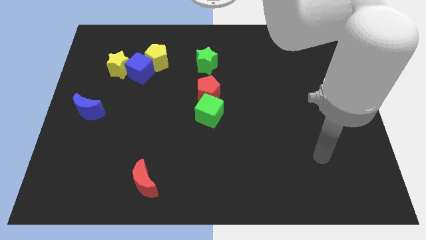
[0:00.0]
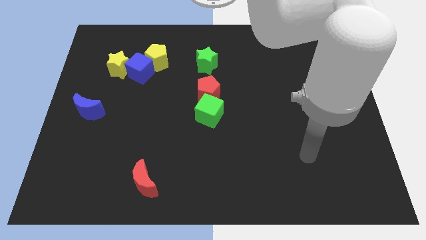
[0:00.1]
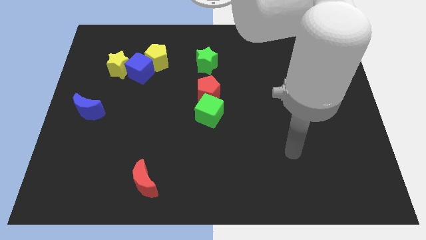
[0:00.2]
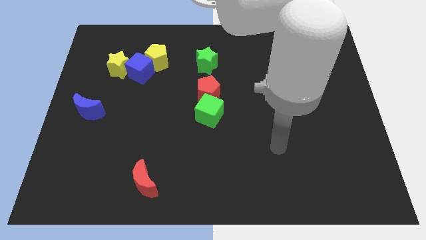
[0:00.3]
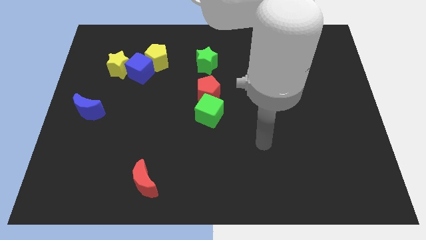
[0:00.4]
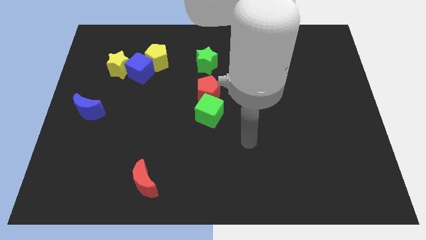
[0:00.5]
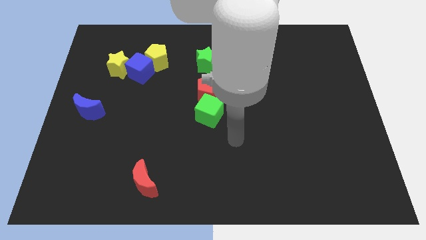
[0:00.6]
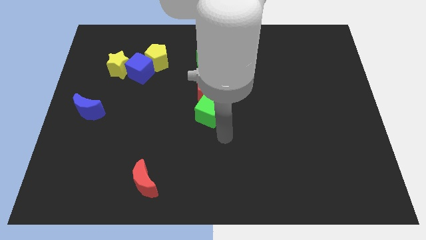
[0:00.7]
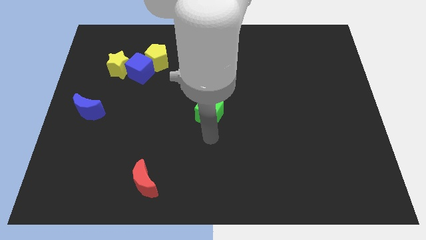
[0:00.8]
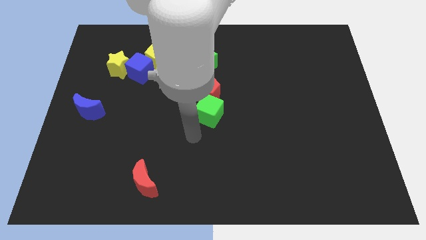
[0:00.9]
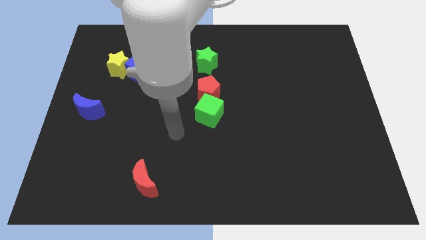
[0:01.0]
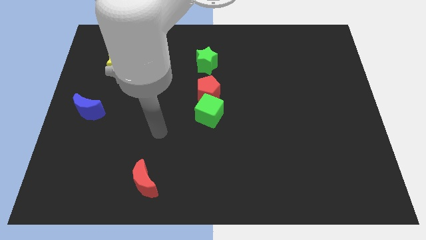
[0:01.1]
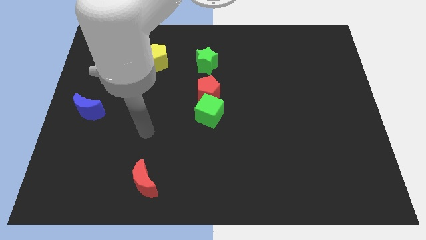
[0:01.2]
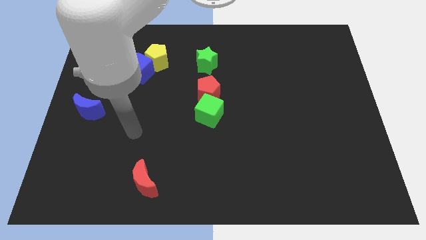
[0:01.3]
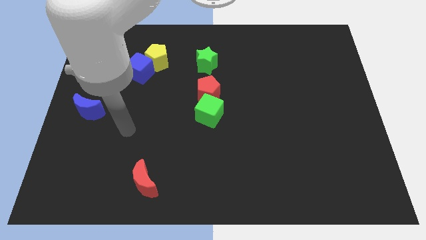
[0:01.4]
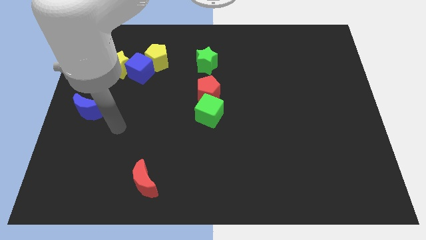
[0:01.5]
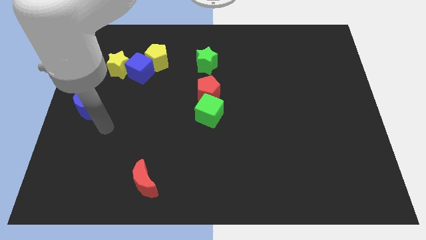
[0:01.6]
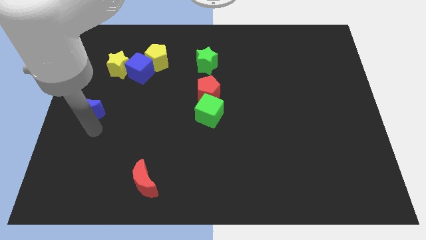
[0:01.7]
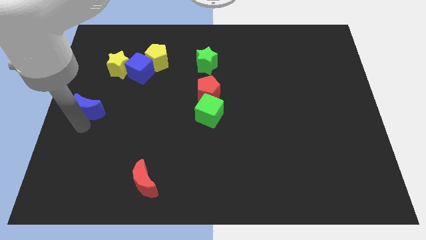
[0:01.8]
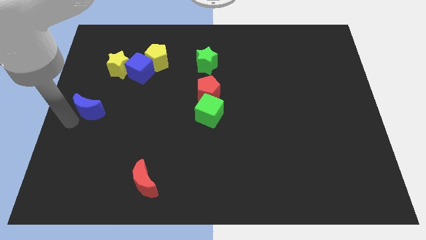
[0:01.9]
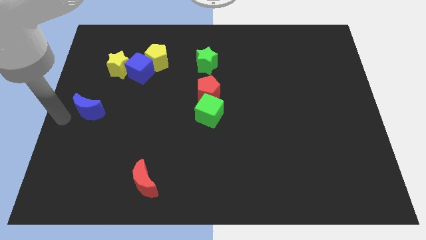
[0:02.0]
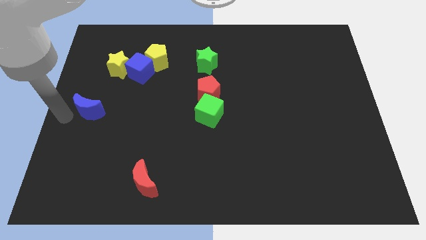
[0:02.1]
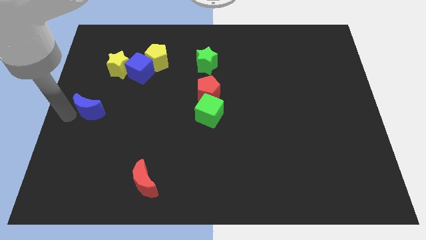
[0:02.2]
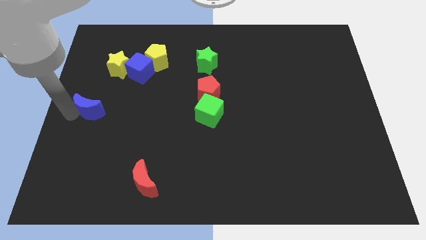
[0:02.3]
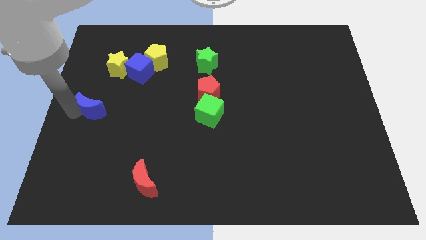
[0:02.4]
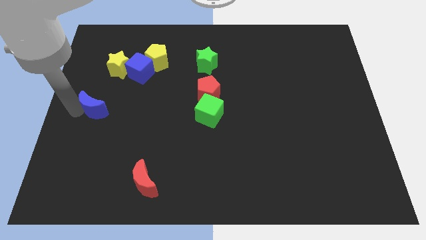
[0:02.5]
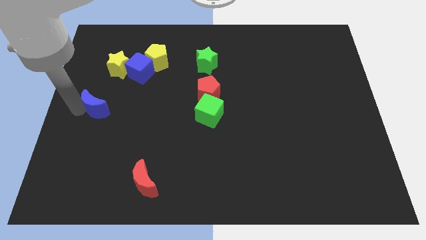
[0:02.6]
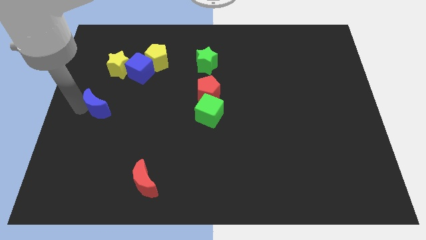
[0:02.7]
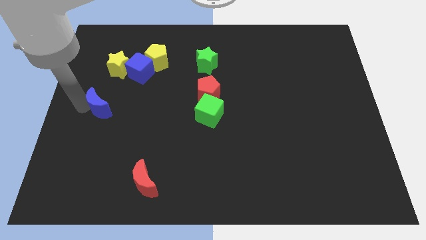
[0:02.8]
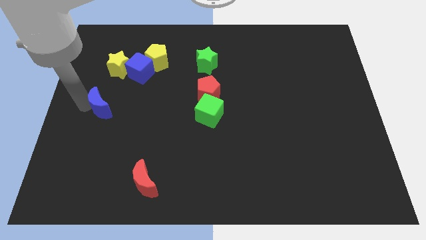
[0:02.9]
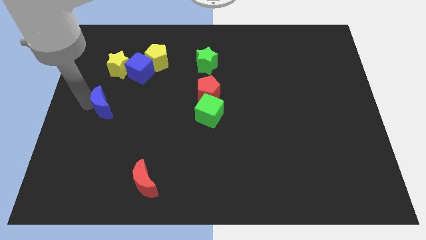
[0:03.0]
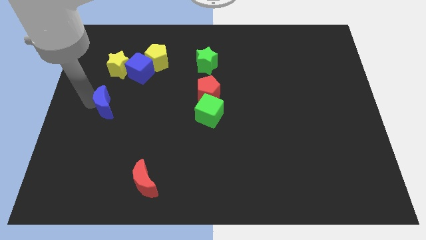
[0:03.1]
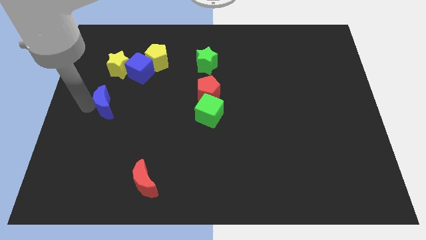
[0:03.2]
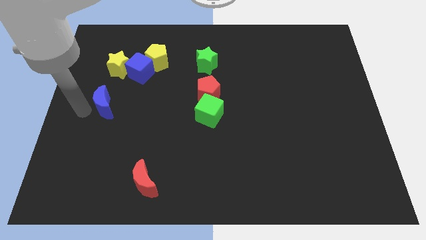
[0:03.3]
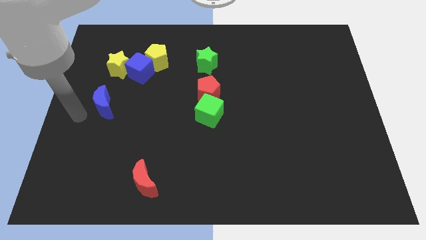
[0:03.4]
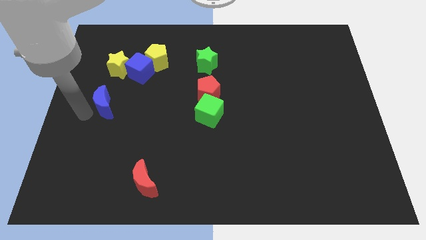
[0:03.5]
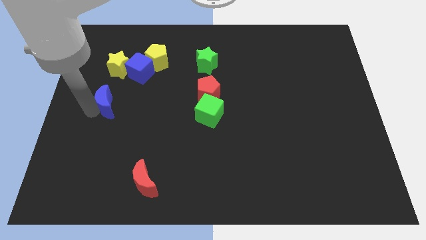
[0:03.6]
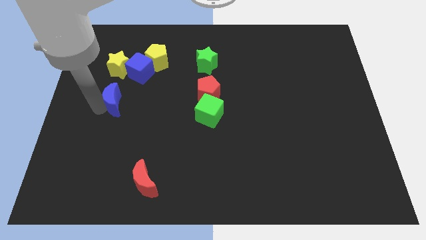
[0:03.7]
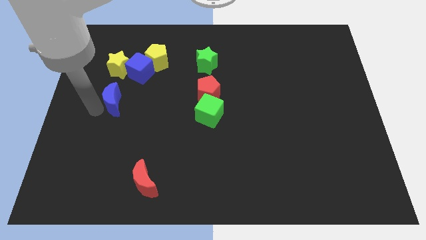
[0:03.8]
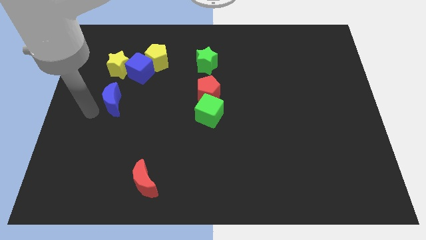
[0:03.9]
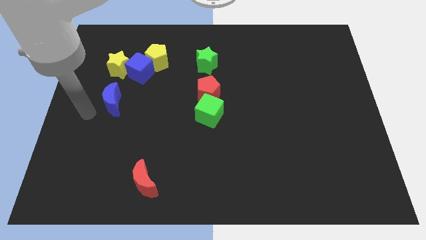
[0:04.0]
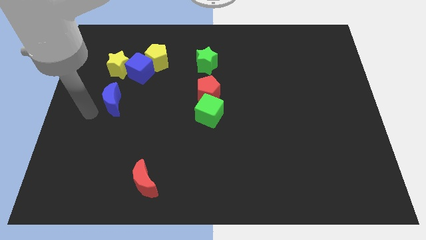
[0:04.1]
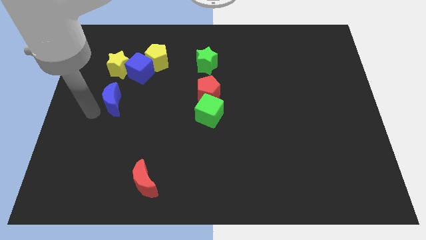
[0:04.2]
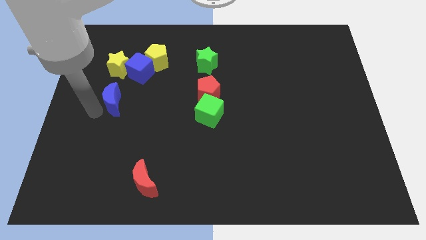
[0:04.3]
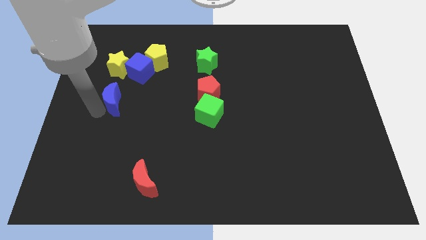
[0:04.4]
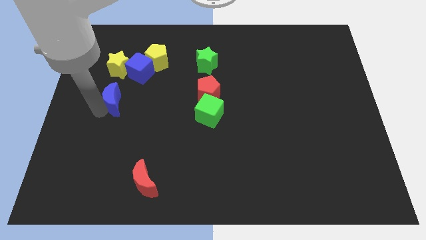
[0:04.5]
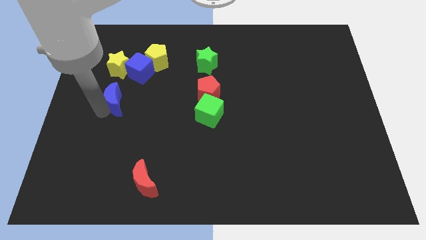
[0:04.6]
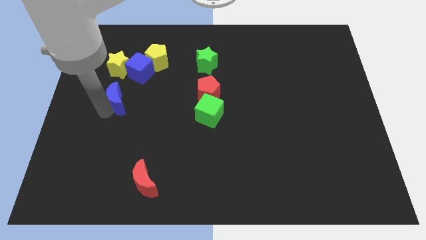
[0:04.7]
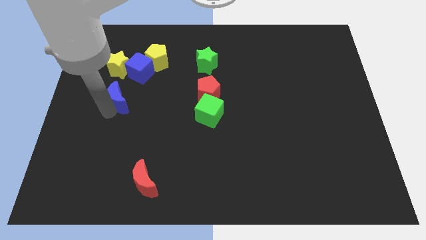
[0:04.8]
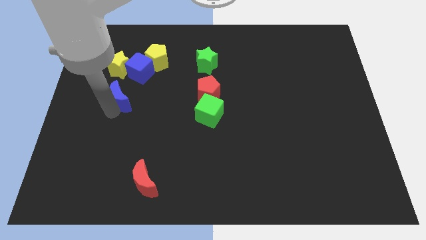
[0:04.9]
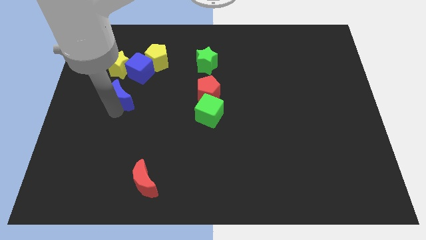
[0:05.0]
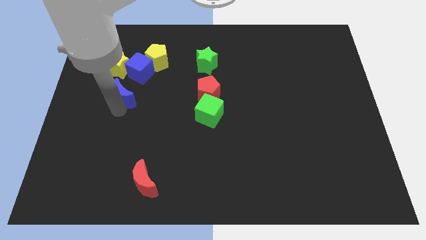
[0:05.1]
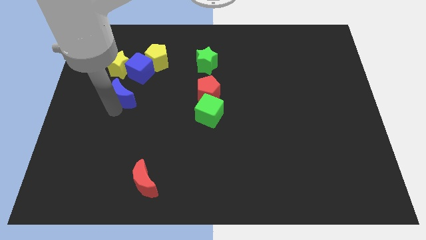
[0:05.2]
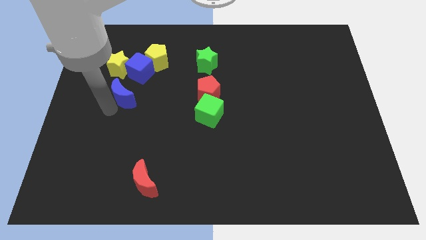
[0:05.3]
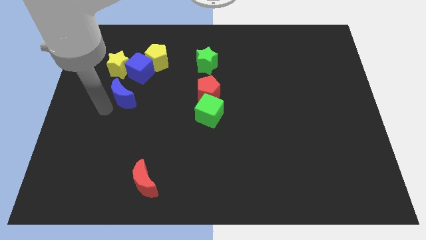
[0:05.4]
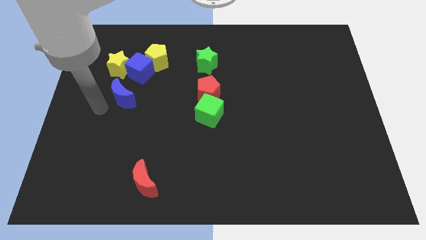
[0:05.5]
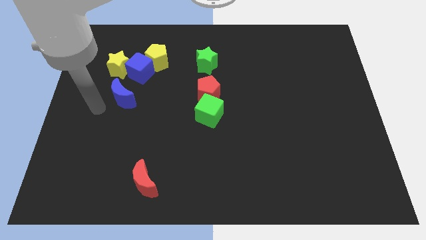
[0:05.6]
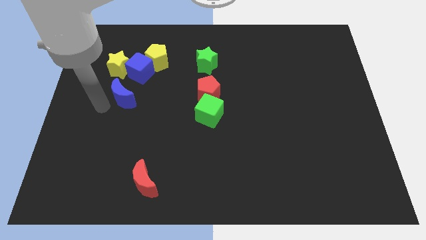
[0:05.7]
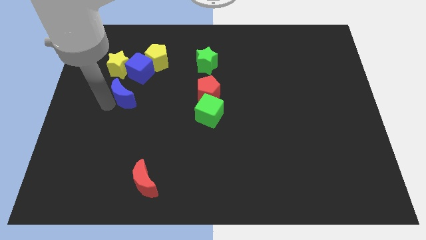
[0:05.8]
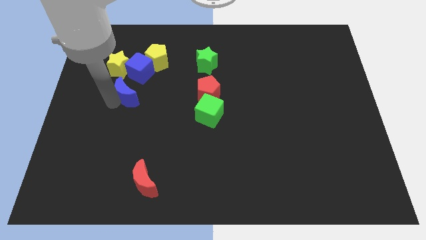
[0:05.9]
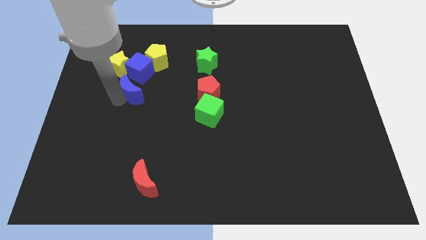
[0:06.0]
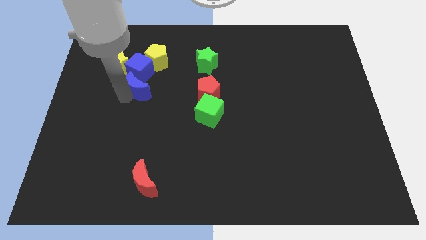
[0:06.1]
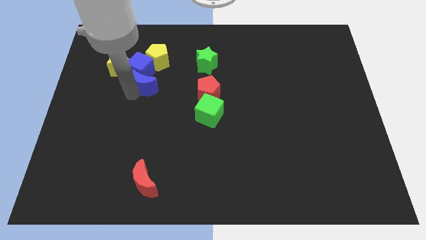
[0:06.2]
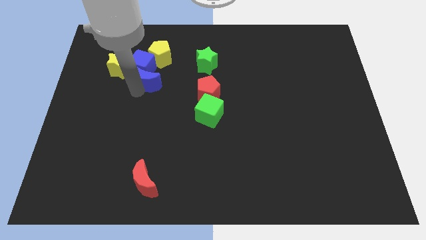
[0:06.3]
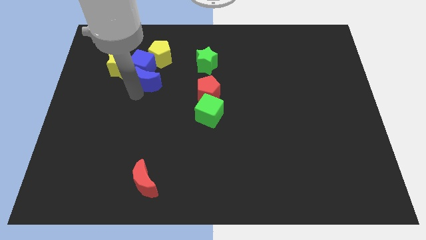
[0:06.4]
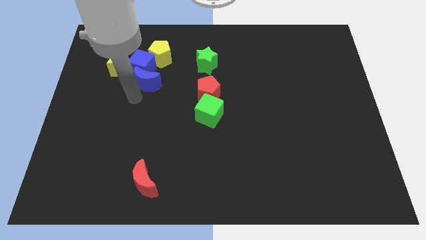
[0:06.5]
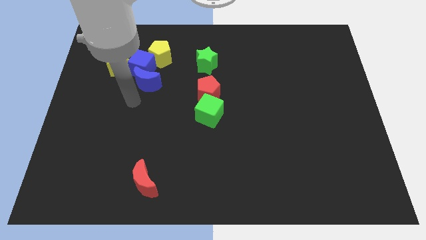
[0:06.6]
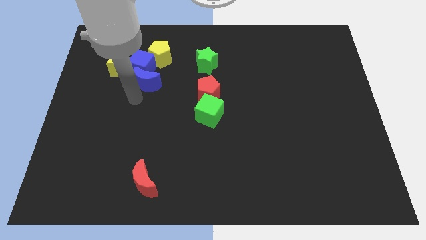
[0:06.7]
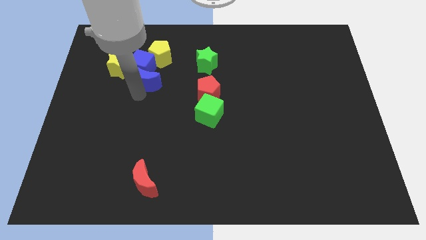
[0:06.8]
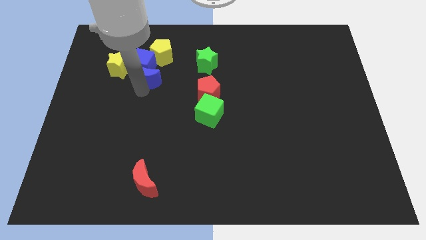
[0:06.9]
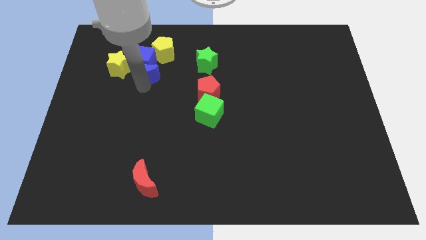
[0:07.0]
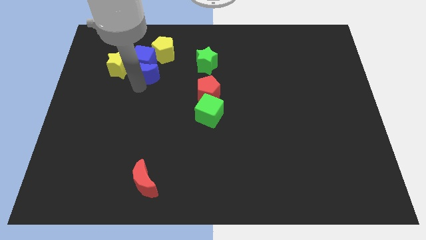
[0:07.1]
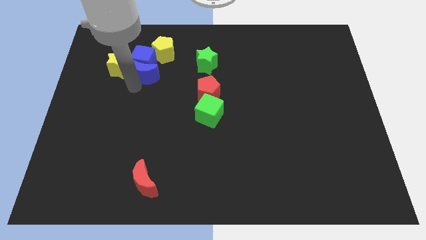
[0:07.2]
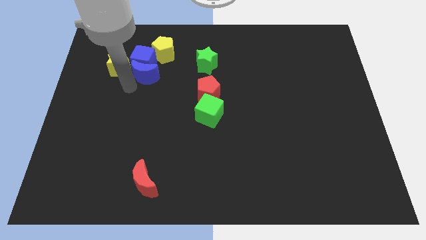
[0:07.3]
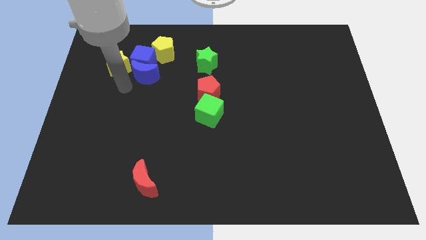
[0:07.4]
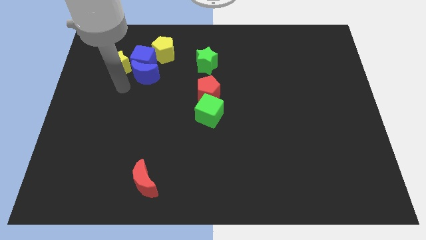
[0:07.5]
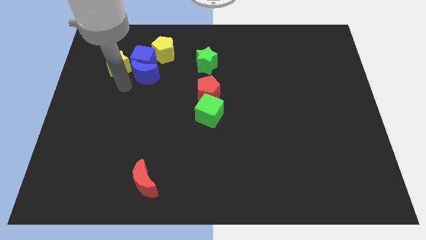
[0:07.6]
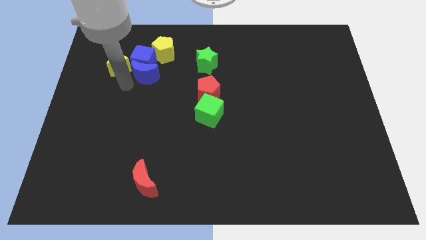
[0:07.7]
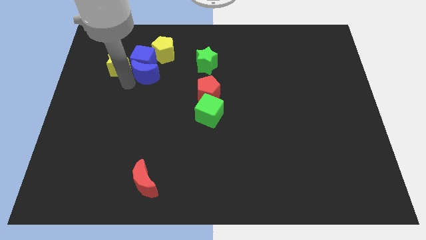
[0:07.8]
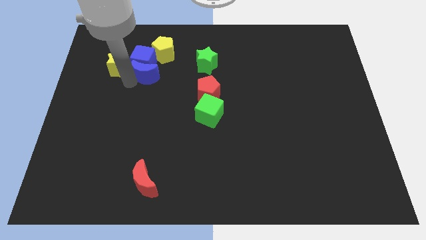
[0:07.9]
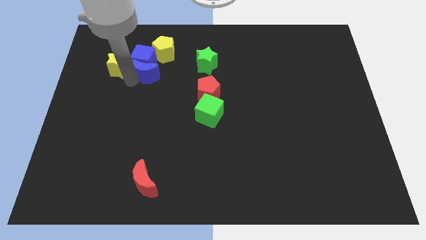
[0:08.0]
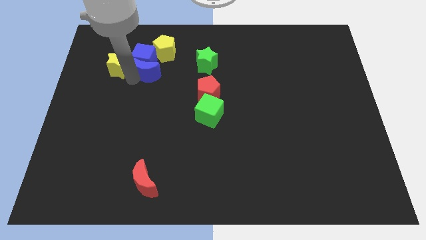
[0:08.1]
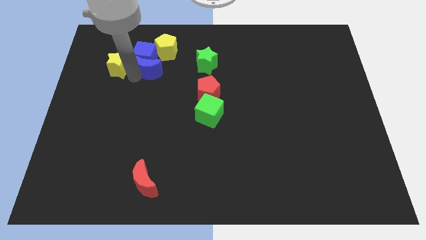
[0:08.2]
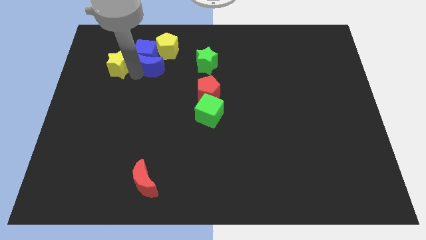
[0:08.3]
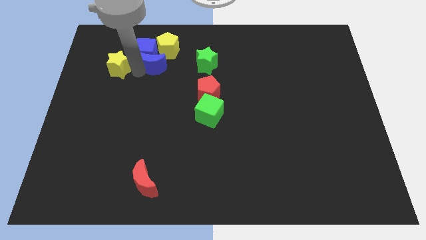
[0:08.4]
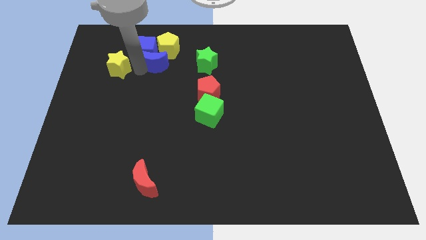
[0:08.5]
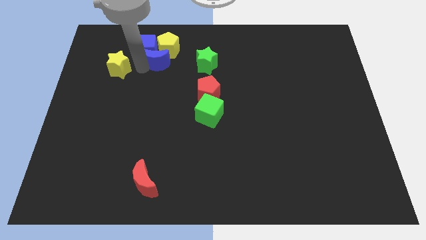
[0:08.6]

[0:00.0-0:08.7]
push the blue moon close to the yellow pentagon
